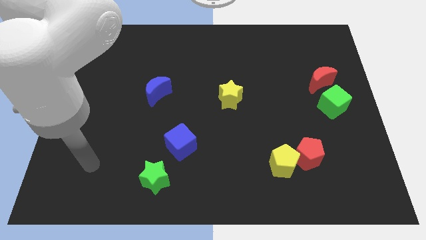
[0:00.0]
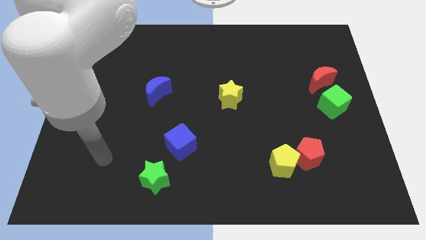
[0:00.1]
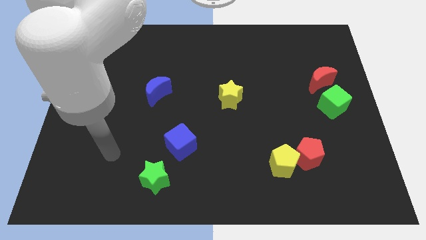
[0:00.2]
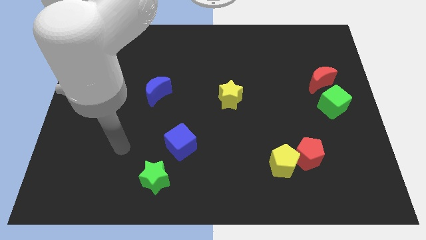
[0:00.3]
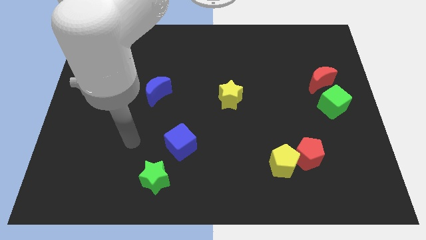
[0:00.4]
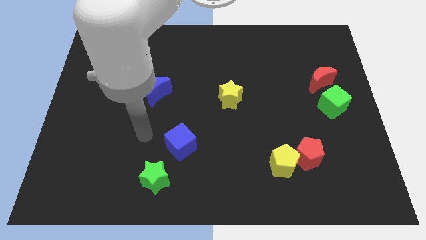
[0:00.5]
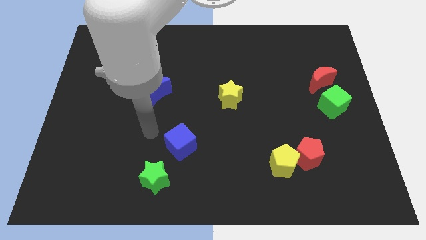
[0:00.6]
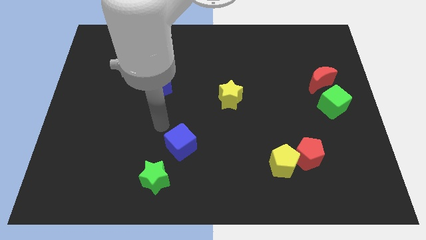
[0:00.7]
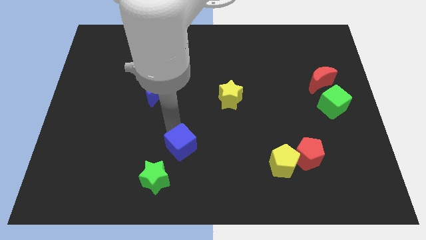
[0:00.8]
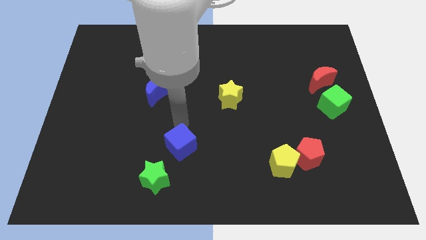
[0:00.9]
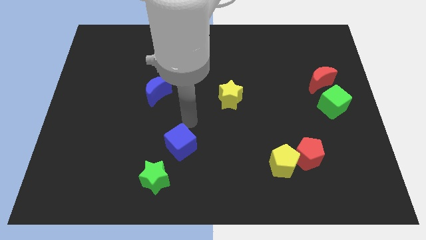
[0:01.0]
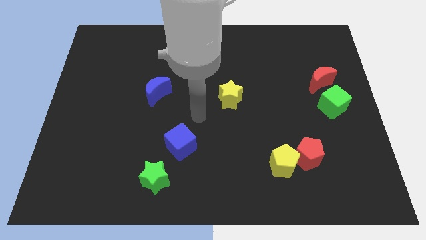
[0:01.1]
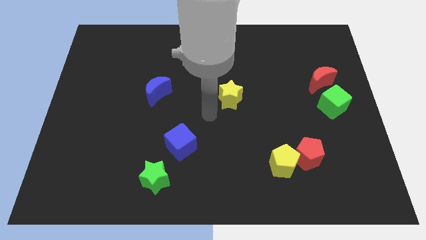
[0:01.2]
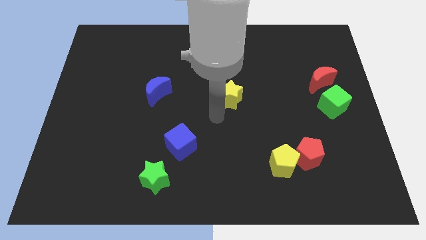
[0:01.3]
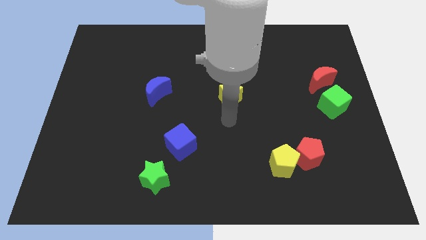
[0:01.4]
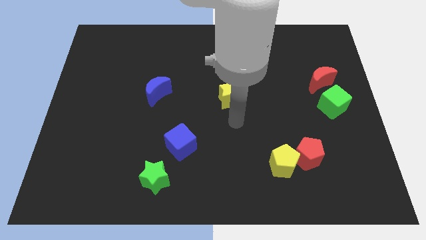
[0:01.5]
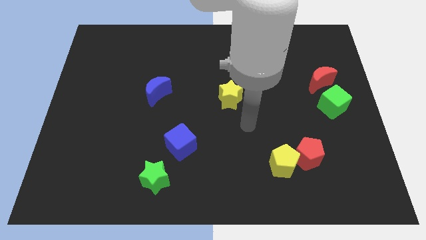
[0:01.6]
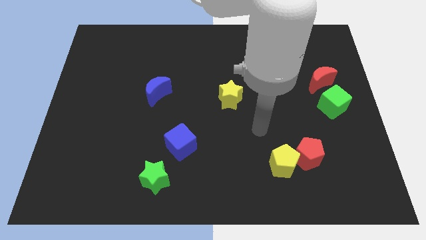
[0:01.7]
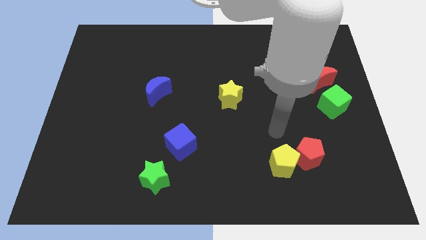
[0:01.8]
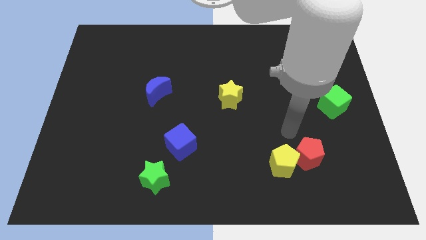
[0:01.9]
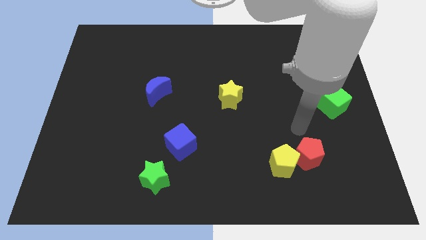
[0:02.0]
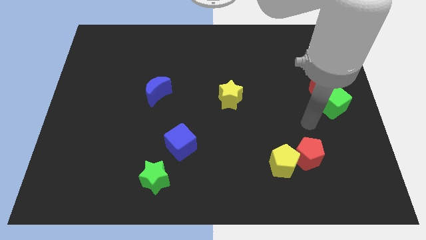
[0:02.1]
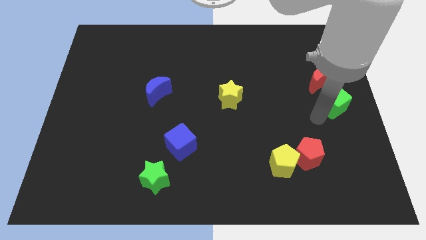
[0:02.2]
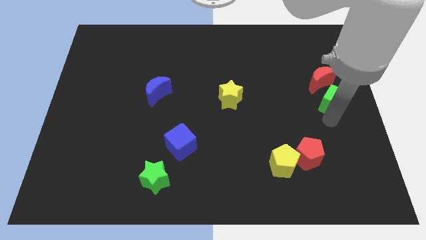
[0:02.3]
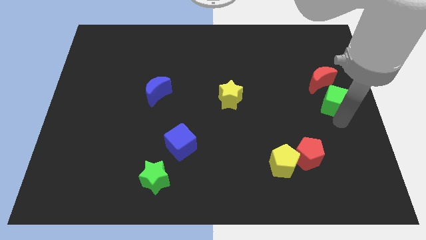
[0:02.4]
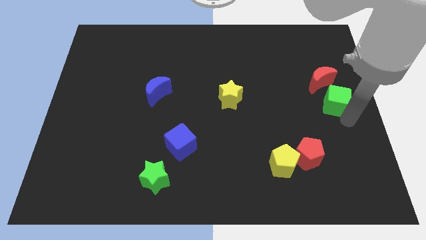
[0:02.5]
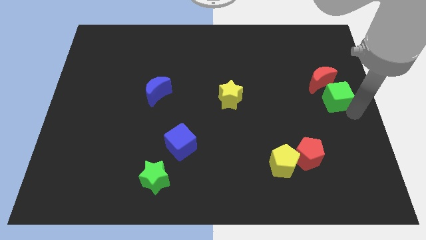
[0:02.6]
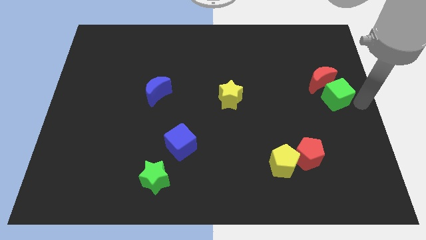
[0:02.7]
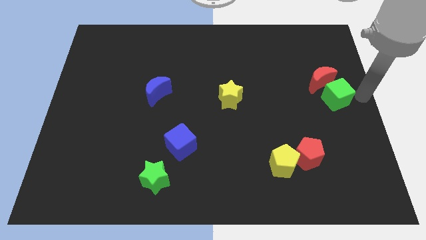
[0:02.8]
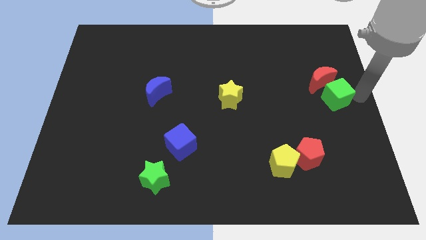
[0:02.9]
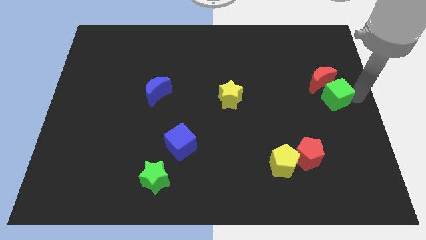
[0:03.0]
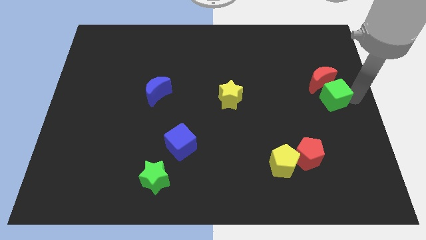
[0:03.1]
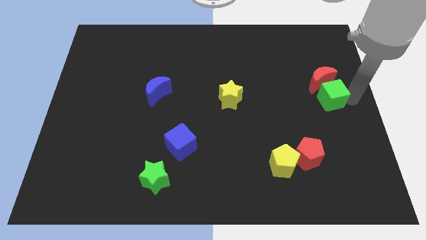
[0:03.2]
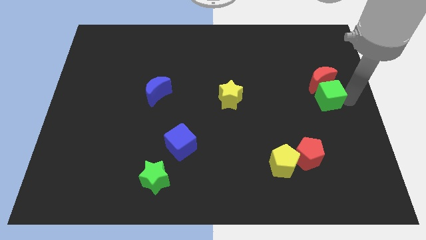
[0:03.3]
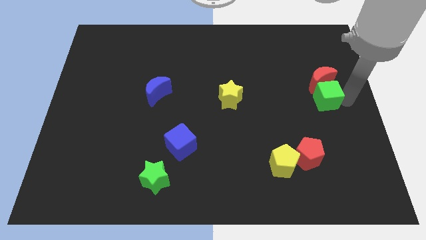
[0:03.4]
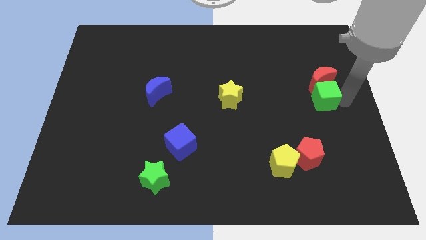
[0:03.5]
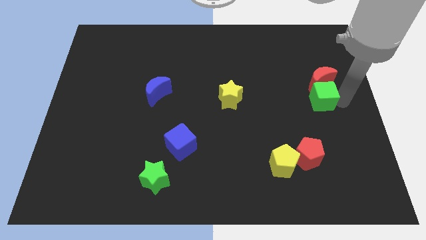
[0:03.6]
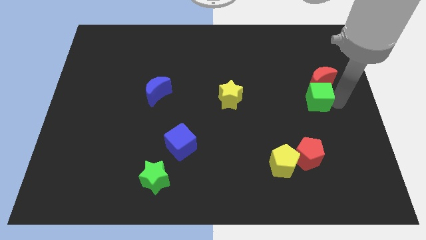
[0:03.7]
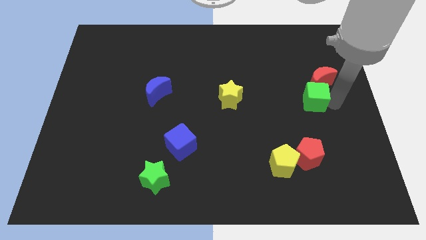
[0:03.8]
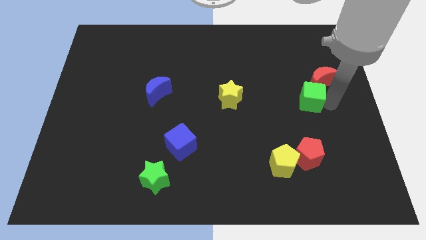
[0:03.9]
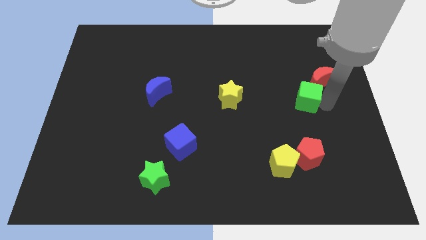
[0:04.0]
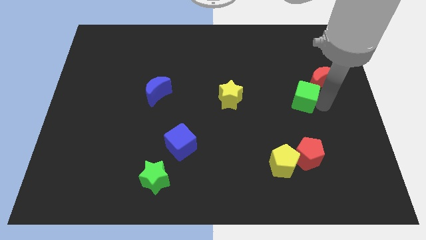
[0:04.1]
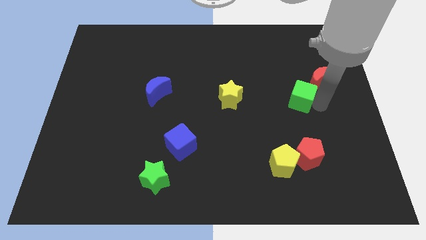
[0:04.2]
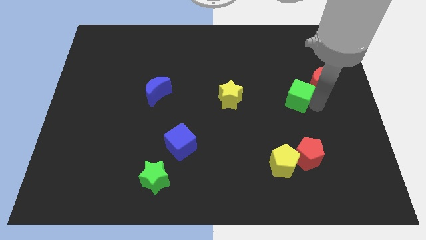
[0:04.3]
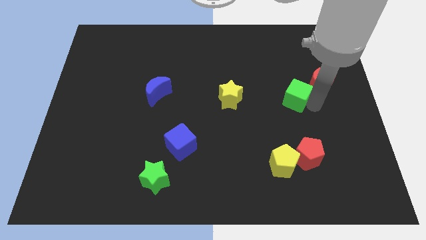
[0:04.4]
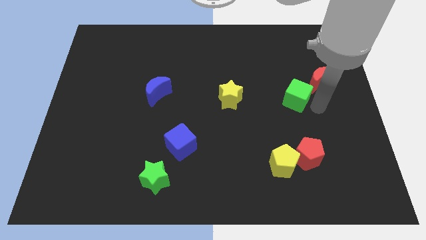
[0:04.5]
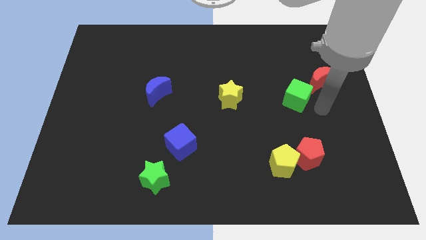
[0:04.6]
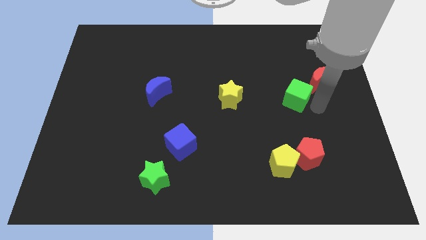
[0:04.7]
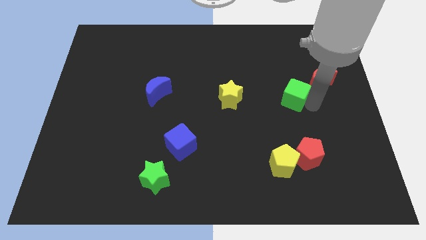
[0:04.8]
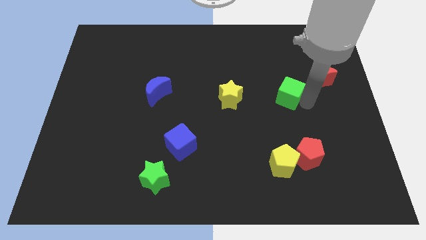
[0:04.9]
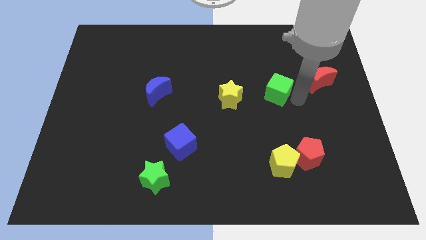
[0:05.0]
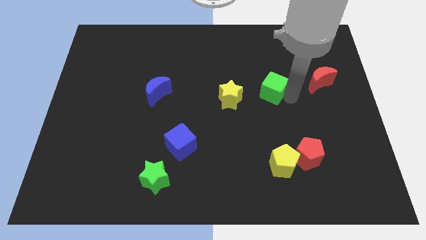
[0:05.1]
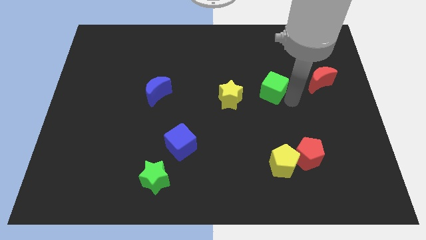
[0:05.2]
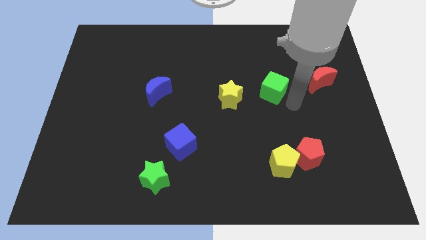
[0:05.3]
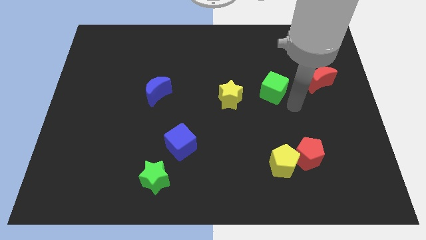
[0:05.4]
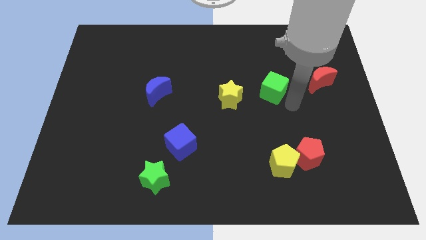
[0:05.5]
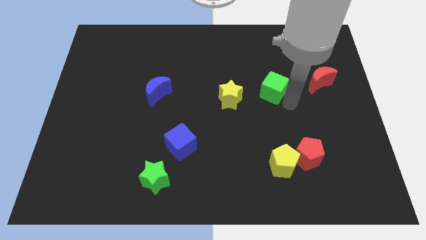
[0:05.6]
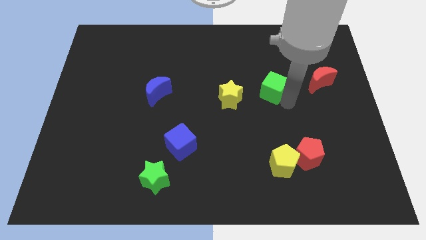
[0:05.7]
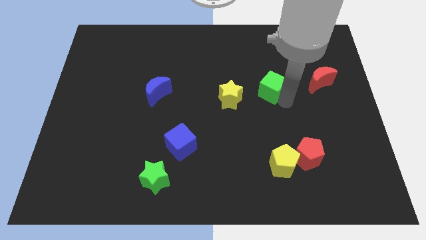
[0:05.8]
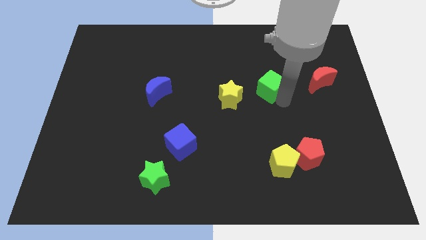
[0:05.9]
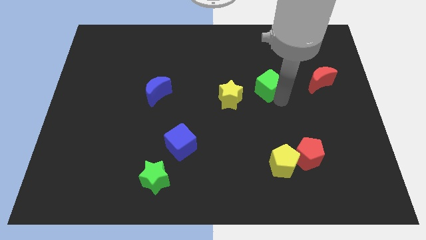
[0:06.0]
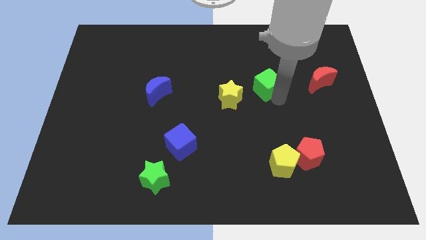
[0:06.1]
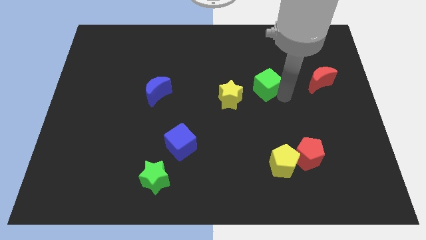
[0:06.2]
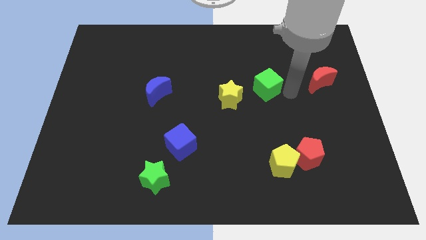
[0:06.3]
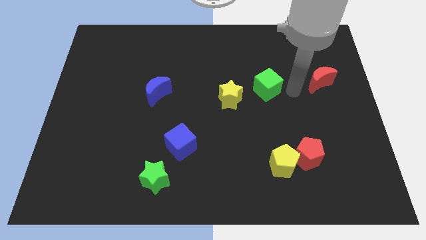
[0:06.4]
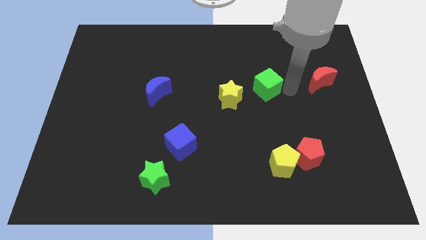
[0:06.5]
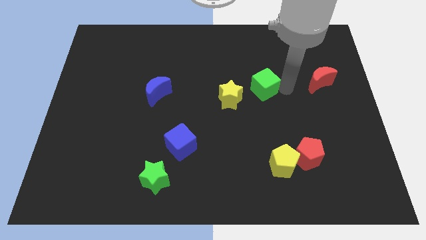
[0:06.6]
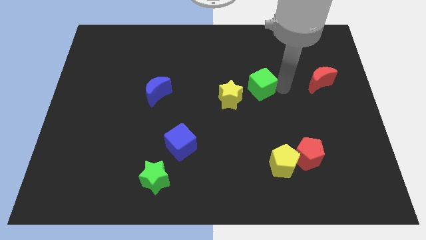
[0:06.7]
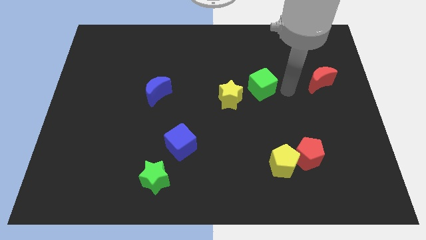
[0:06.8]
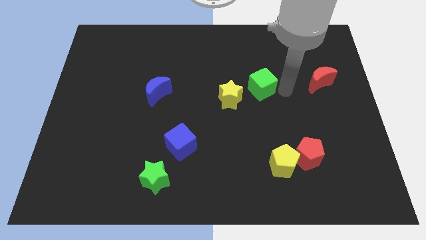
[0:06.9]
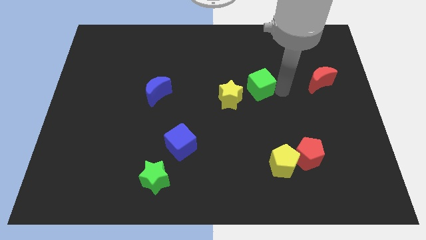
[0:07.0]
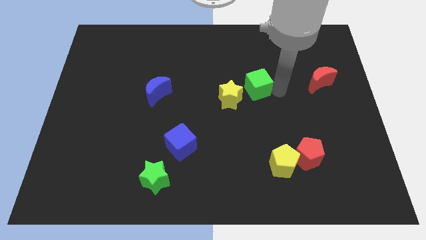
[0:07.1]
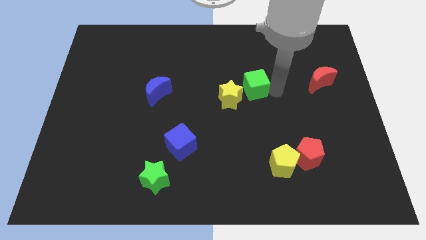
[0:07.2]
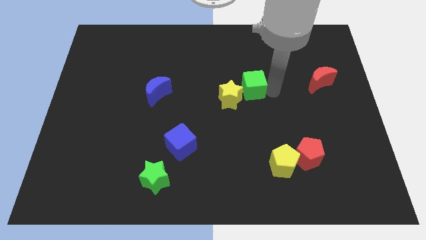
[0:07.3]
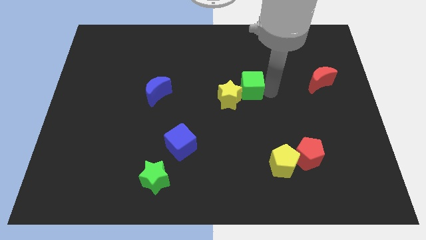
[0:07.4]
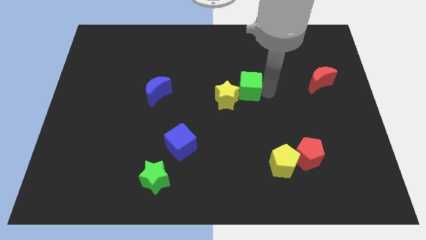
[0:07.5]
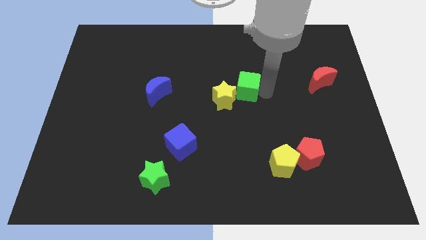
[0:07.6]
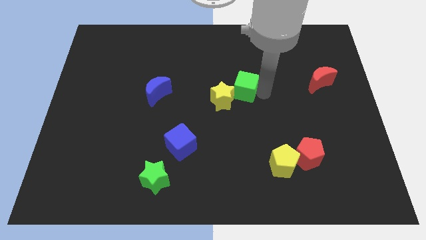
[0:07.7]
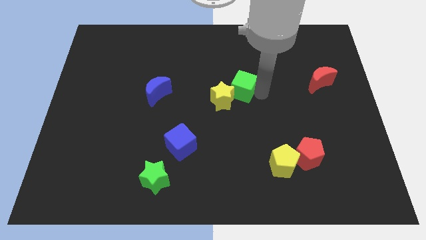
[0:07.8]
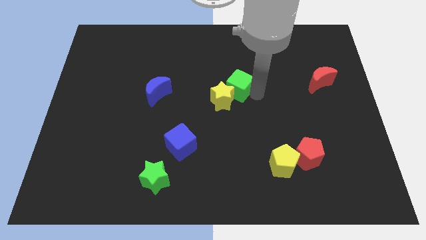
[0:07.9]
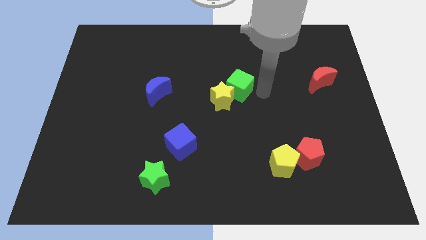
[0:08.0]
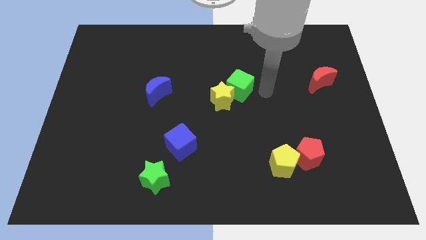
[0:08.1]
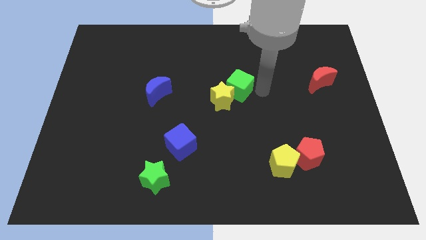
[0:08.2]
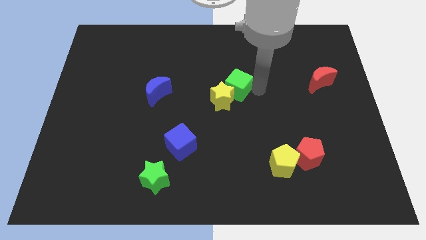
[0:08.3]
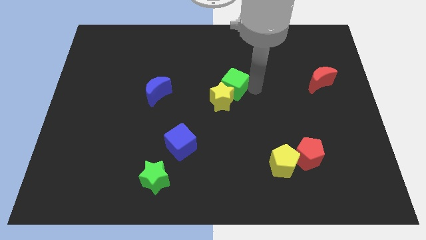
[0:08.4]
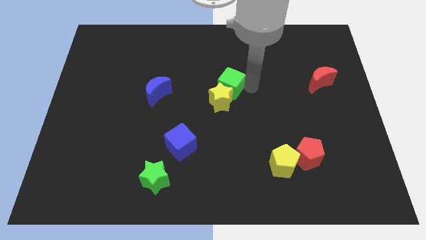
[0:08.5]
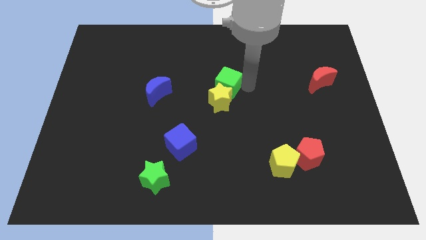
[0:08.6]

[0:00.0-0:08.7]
put the green cube to the top left of the yellow star
